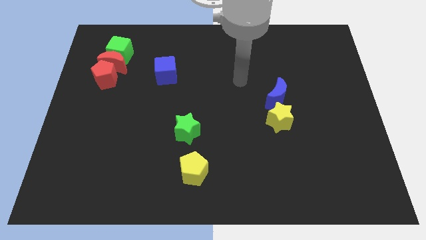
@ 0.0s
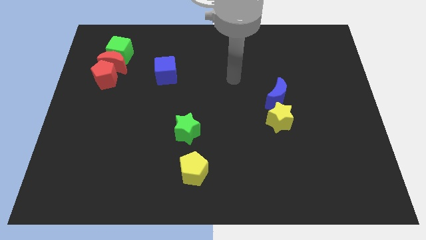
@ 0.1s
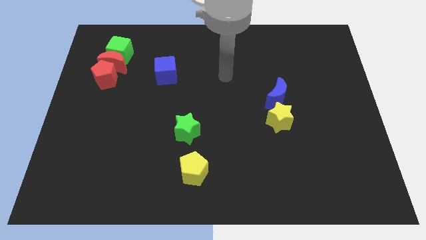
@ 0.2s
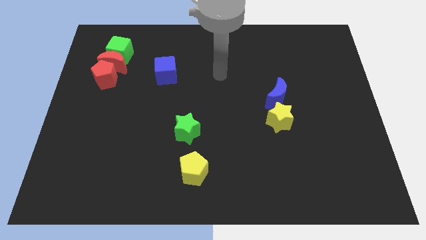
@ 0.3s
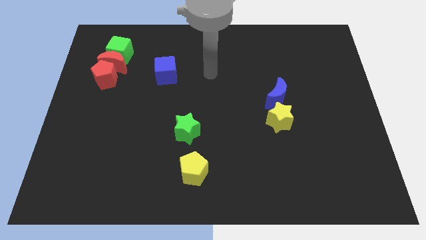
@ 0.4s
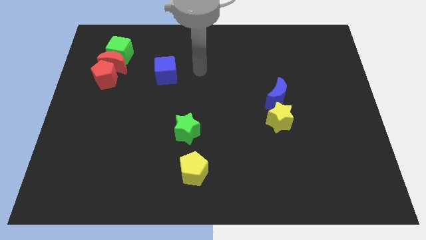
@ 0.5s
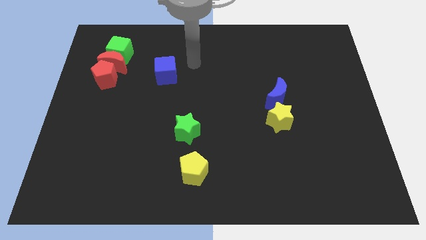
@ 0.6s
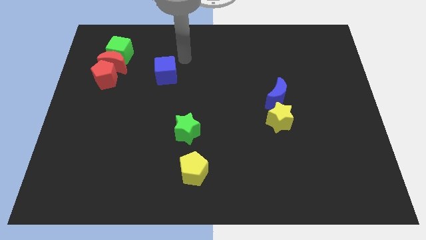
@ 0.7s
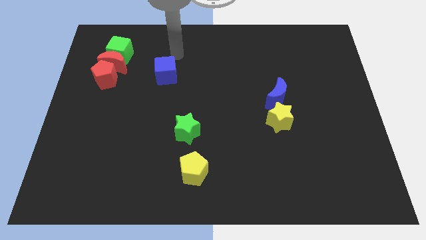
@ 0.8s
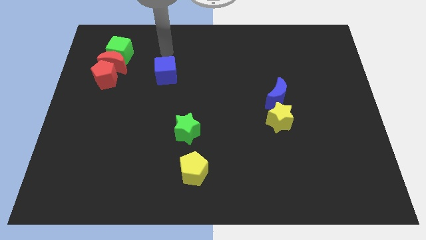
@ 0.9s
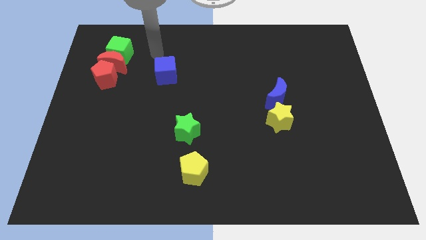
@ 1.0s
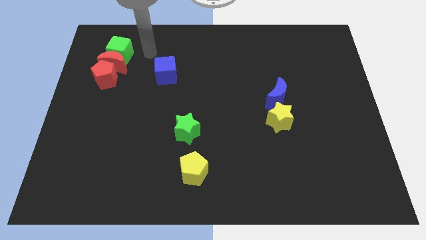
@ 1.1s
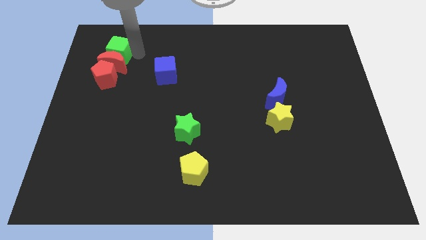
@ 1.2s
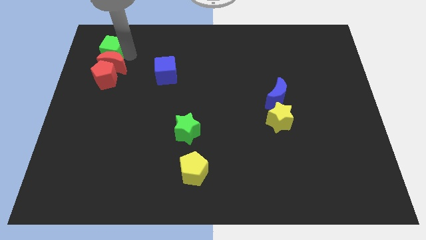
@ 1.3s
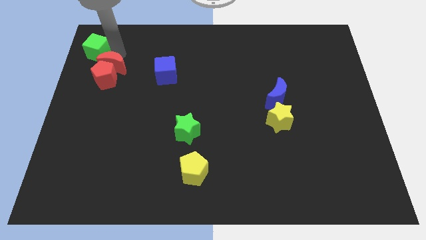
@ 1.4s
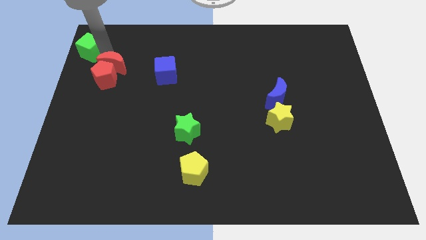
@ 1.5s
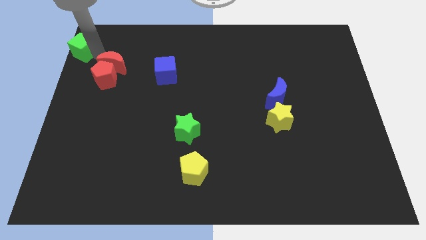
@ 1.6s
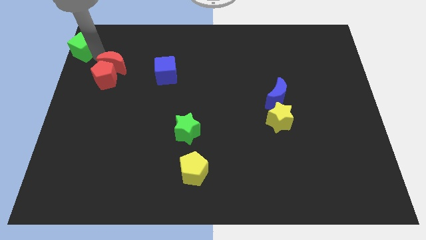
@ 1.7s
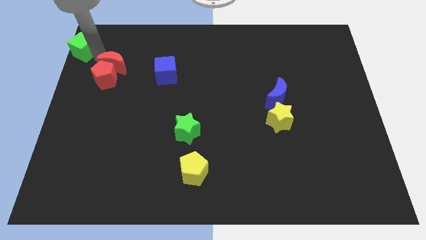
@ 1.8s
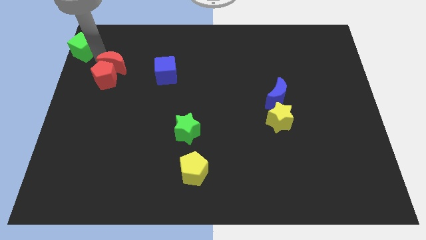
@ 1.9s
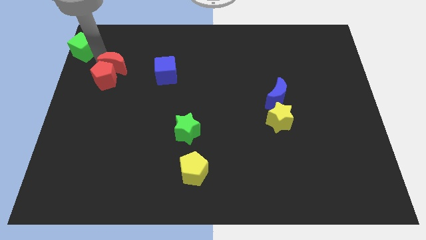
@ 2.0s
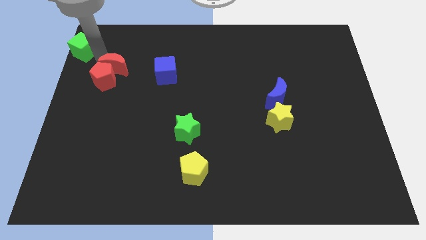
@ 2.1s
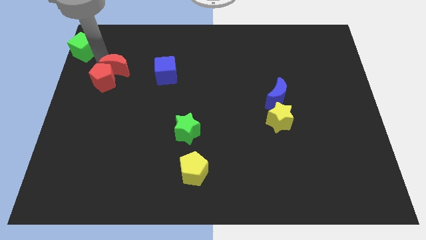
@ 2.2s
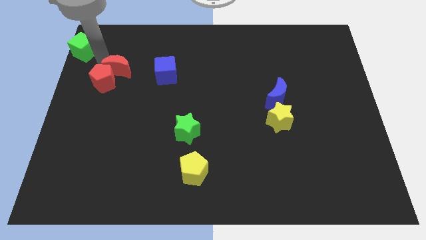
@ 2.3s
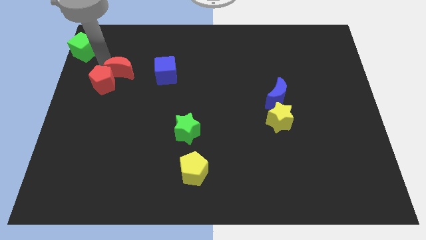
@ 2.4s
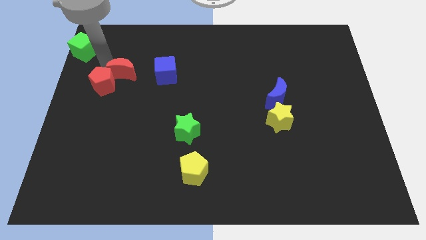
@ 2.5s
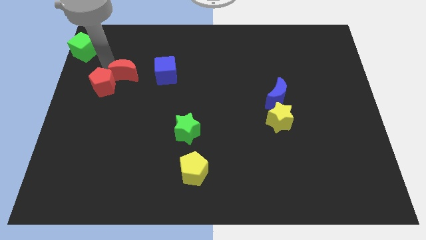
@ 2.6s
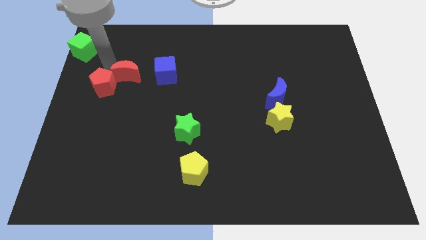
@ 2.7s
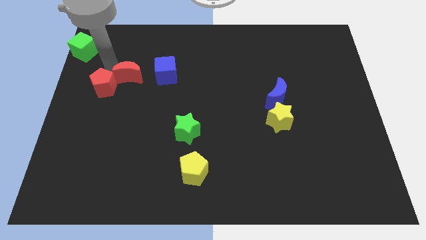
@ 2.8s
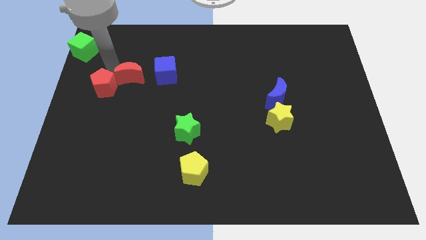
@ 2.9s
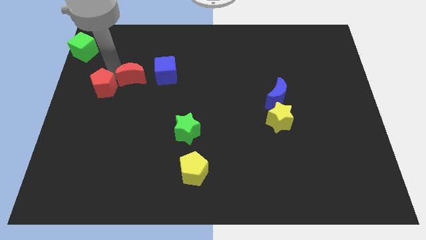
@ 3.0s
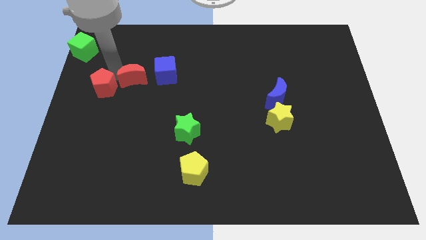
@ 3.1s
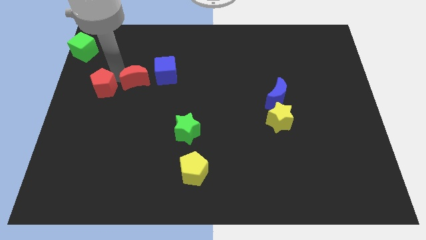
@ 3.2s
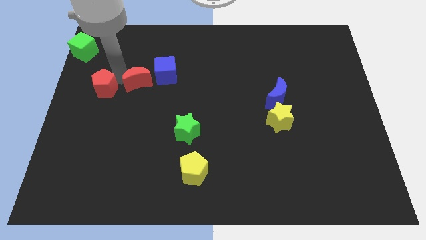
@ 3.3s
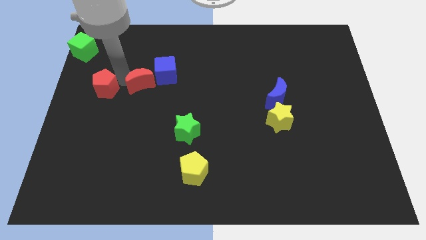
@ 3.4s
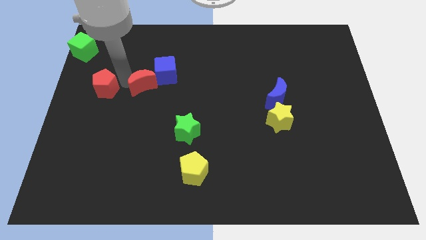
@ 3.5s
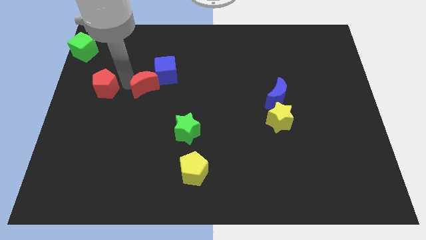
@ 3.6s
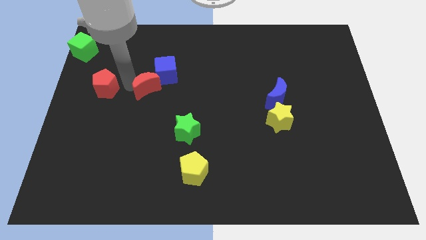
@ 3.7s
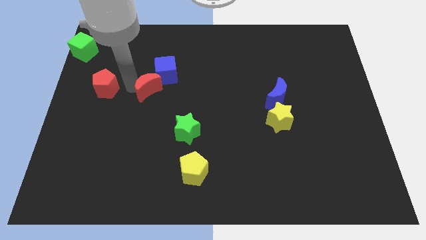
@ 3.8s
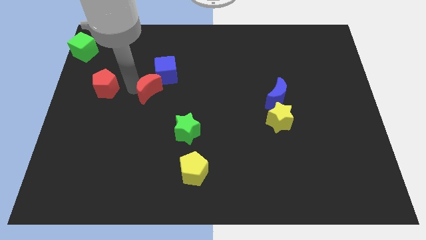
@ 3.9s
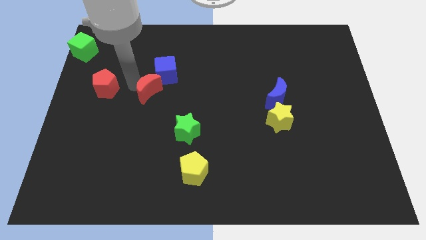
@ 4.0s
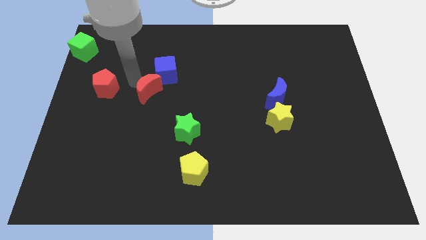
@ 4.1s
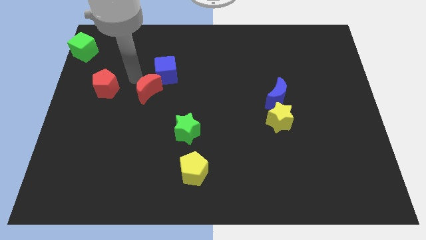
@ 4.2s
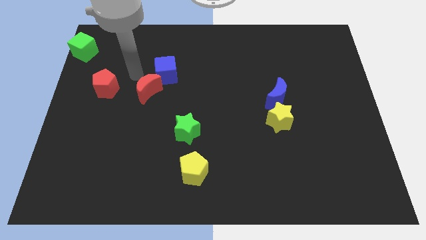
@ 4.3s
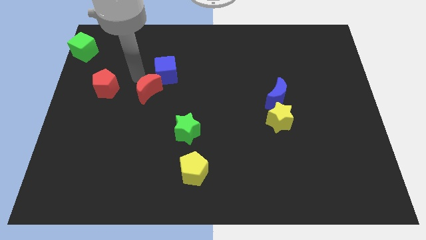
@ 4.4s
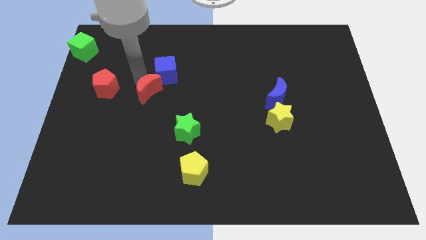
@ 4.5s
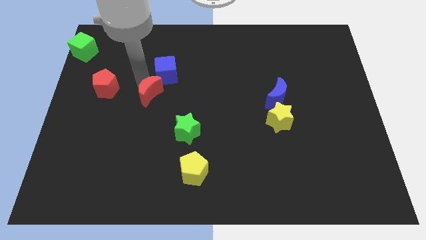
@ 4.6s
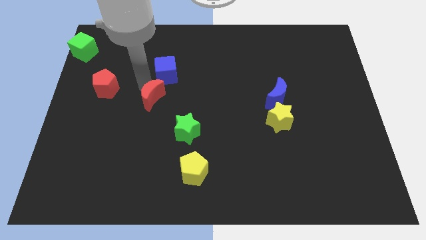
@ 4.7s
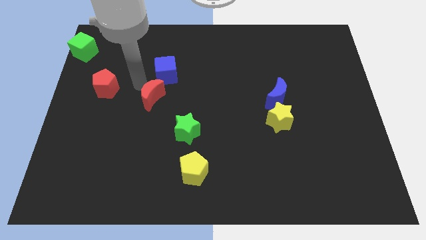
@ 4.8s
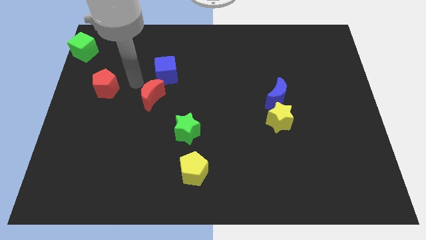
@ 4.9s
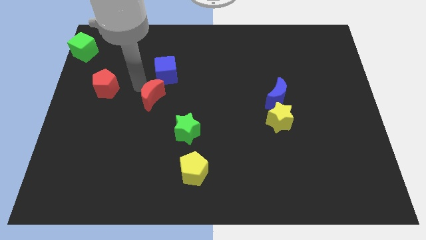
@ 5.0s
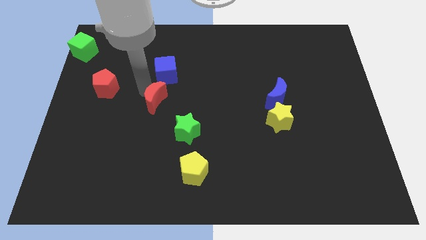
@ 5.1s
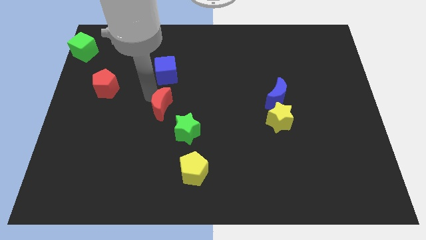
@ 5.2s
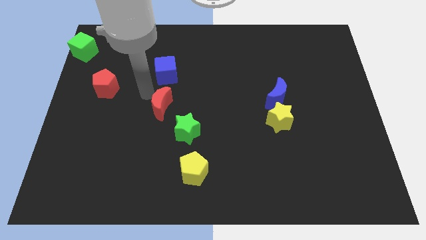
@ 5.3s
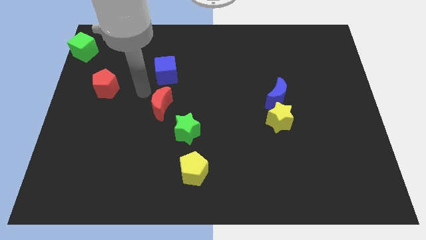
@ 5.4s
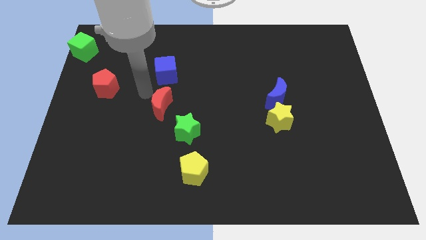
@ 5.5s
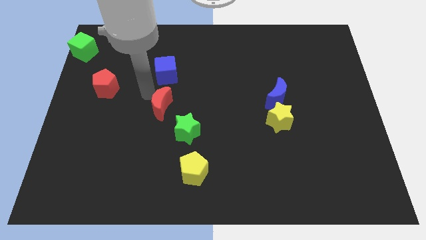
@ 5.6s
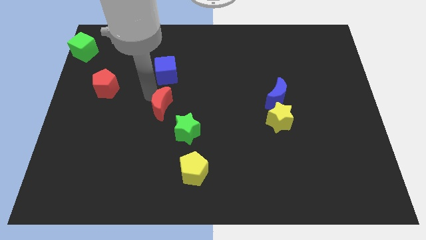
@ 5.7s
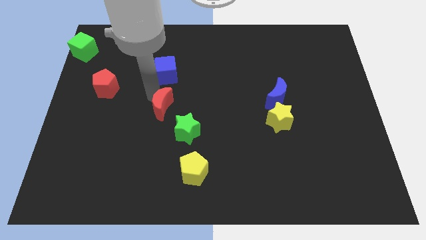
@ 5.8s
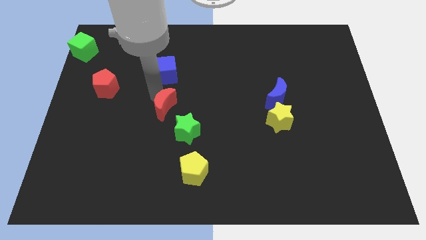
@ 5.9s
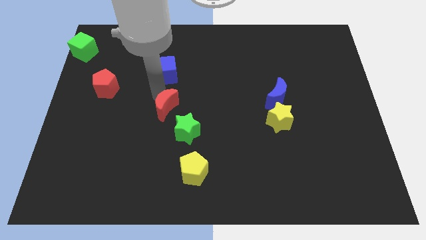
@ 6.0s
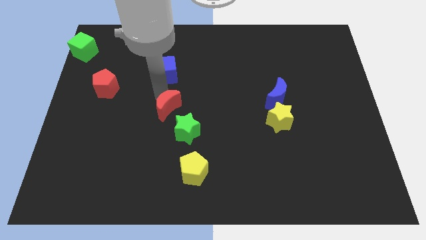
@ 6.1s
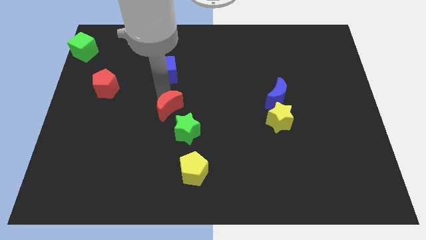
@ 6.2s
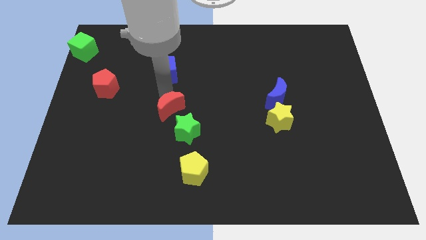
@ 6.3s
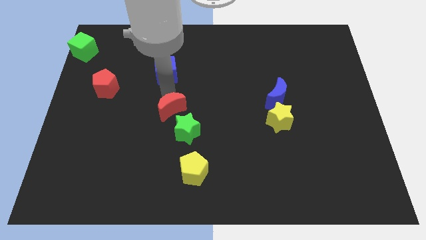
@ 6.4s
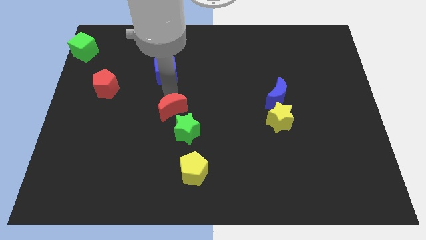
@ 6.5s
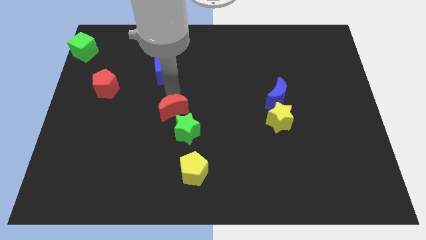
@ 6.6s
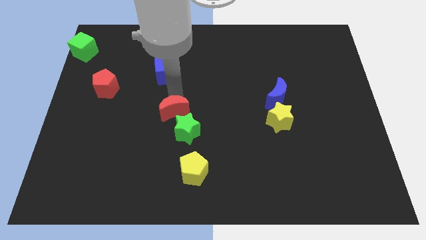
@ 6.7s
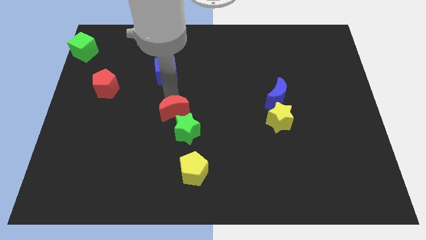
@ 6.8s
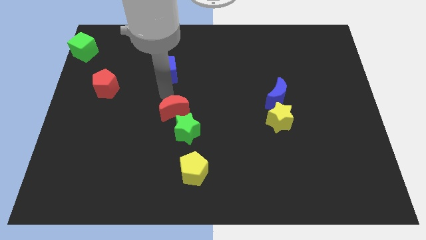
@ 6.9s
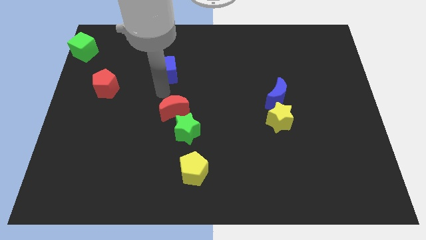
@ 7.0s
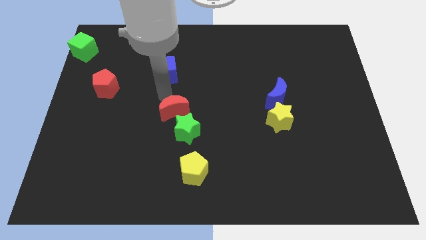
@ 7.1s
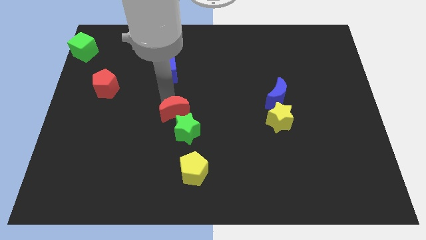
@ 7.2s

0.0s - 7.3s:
push the red moon to the green star
